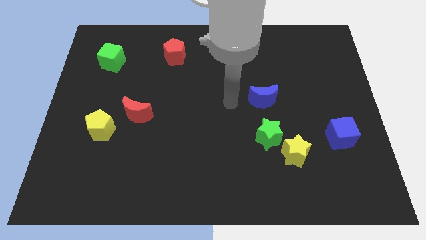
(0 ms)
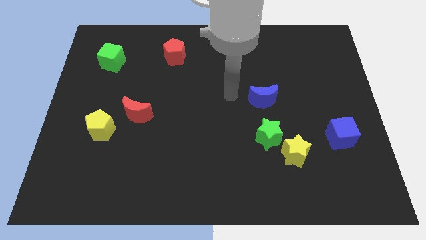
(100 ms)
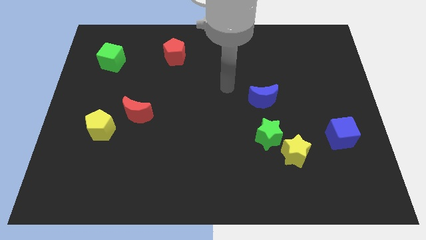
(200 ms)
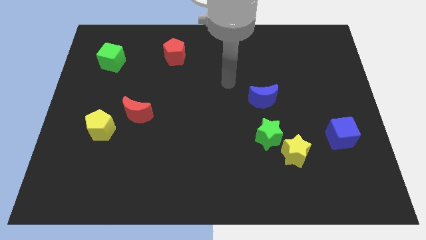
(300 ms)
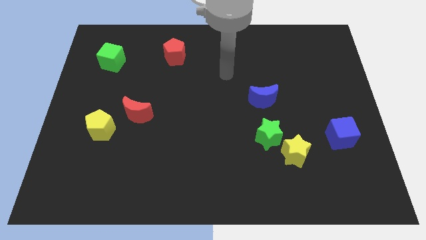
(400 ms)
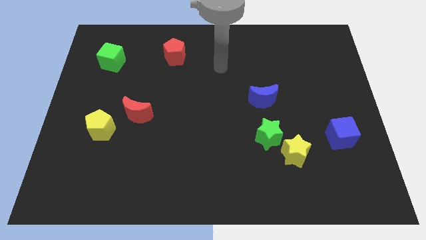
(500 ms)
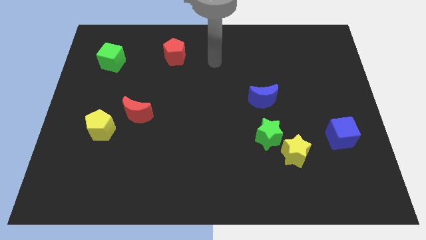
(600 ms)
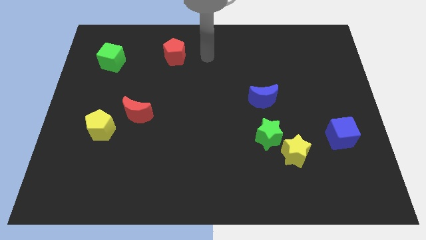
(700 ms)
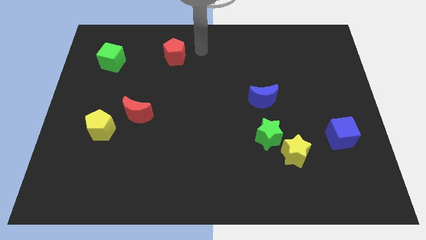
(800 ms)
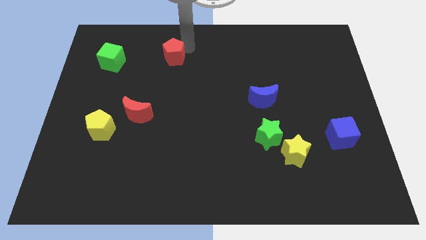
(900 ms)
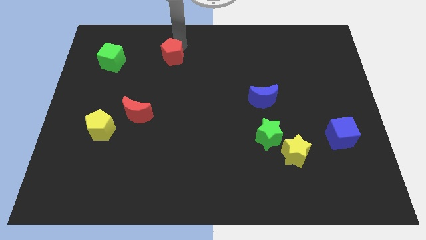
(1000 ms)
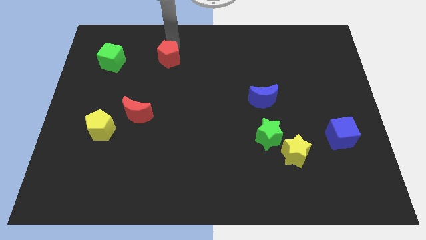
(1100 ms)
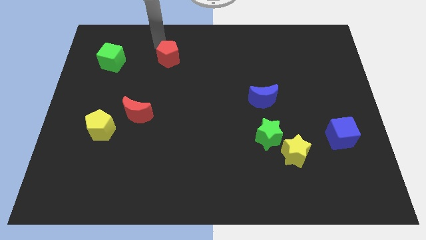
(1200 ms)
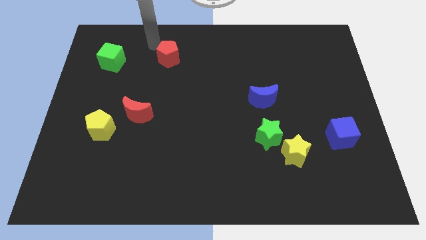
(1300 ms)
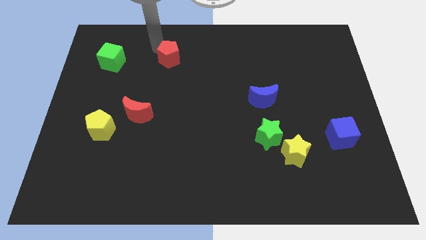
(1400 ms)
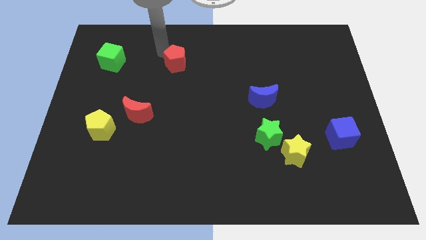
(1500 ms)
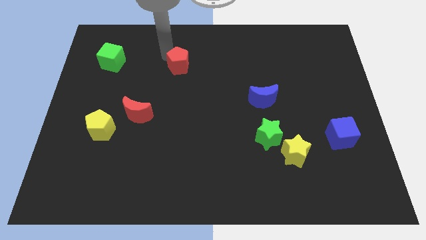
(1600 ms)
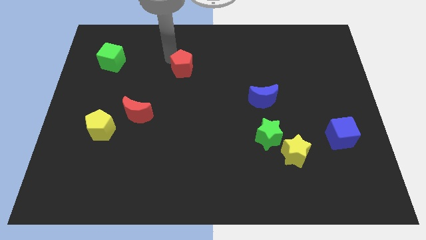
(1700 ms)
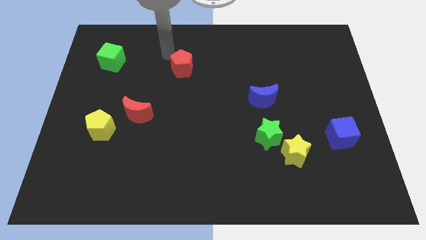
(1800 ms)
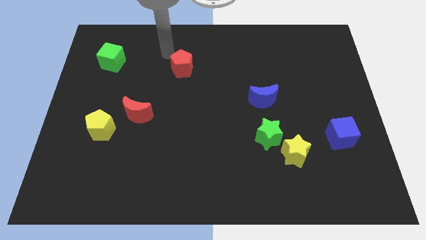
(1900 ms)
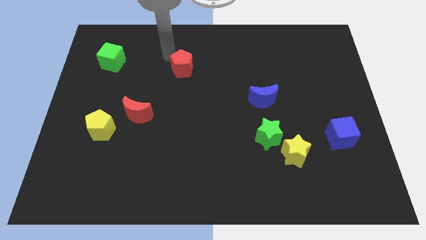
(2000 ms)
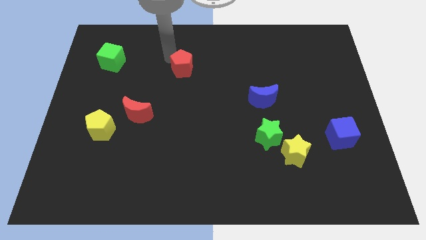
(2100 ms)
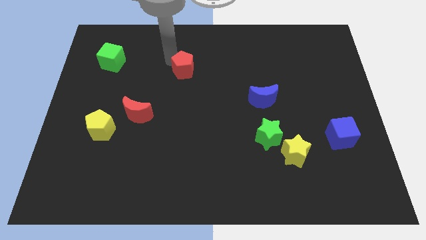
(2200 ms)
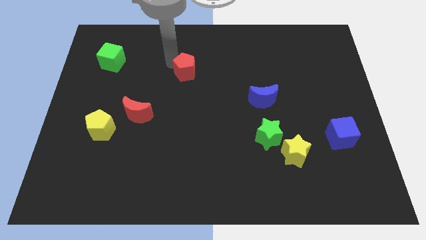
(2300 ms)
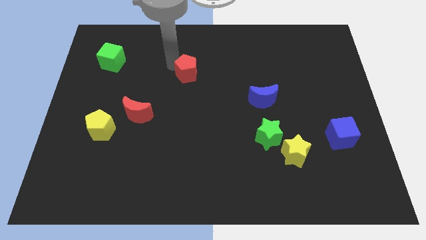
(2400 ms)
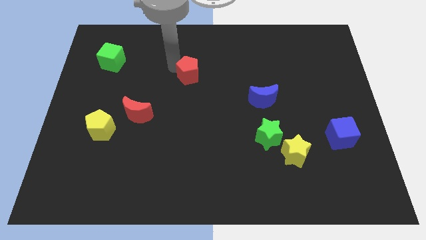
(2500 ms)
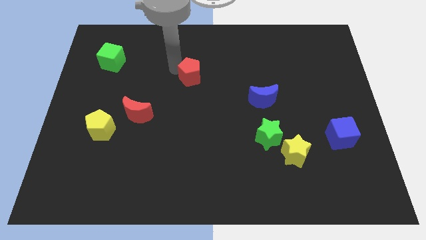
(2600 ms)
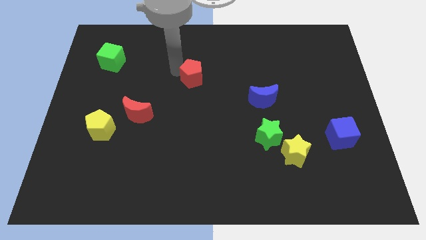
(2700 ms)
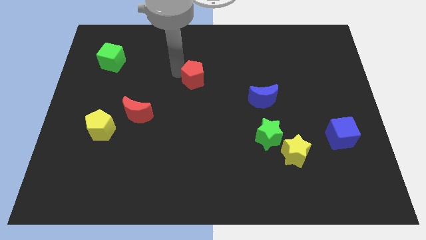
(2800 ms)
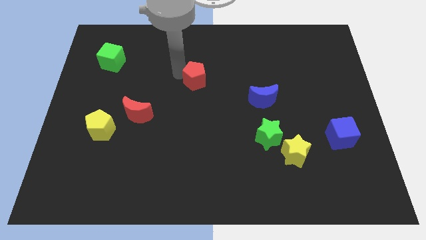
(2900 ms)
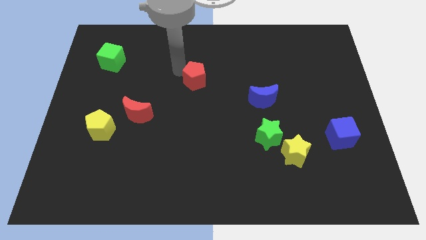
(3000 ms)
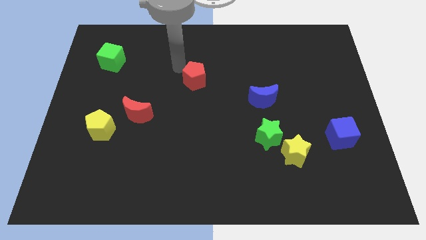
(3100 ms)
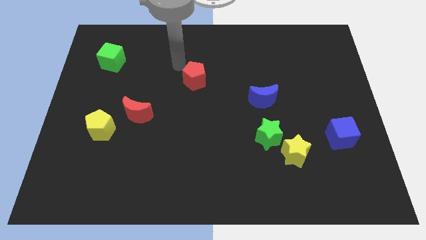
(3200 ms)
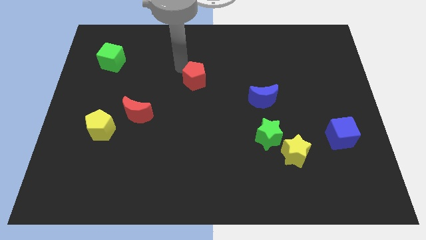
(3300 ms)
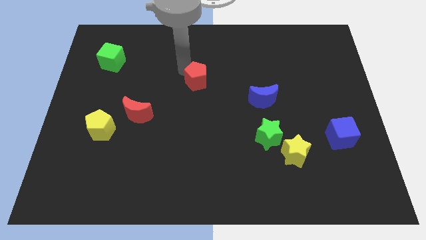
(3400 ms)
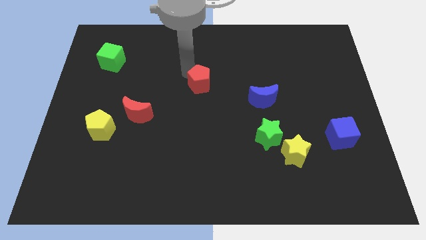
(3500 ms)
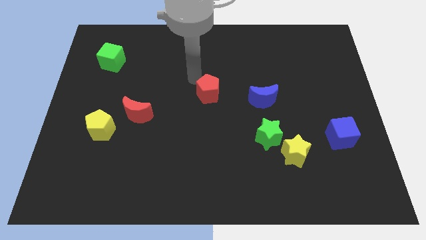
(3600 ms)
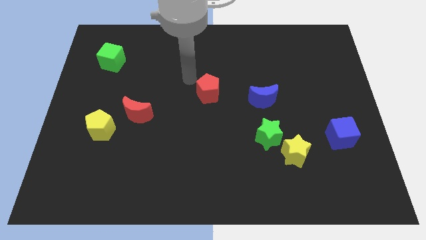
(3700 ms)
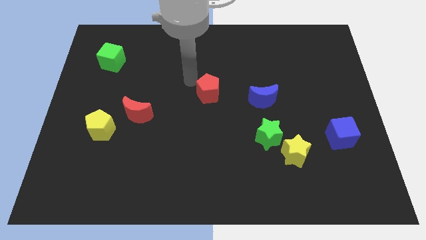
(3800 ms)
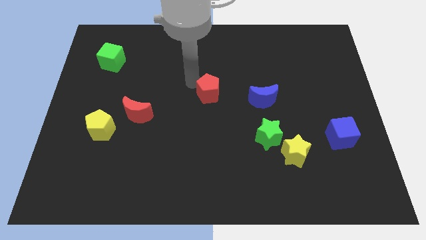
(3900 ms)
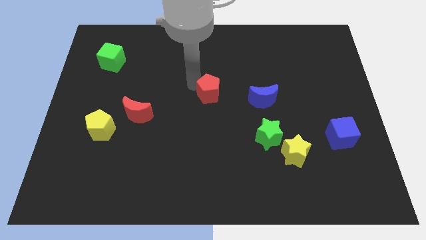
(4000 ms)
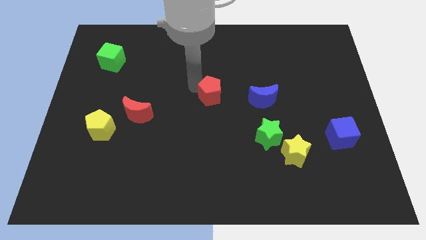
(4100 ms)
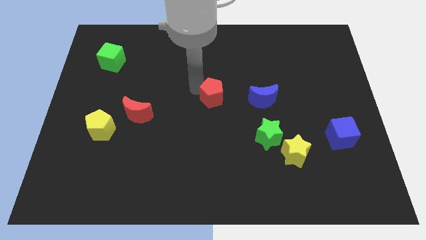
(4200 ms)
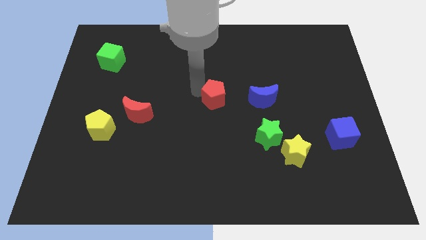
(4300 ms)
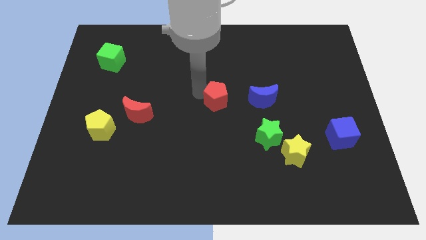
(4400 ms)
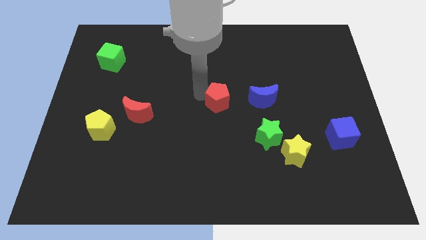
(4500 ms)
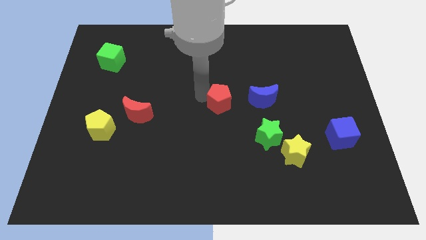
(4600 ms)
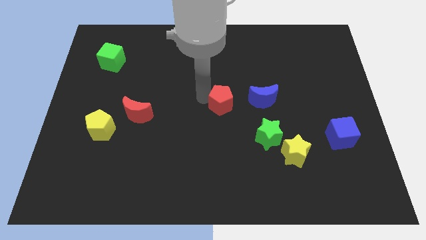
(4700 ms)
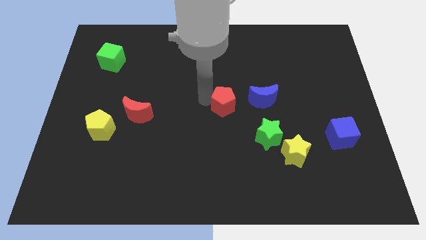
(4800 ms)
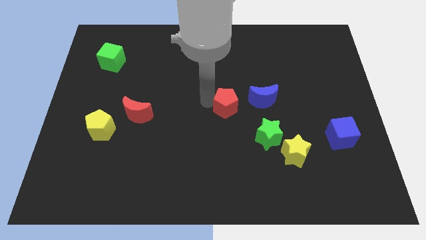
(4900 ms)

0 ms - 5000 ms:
slide the red pentagon to the bottom left side of the blue moon

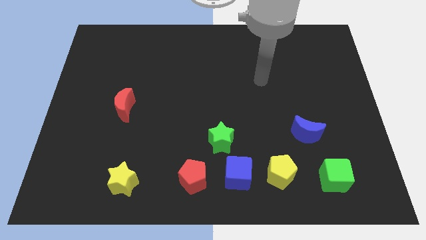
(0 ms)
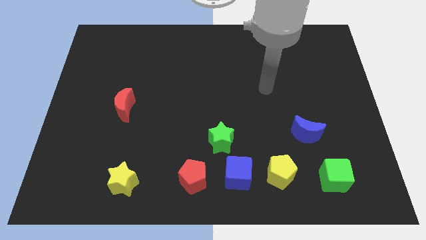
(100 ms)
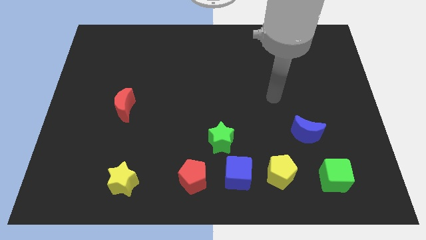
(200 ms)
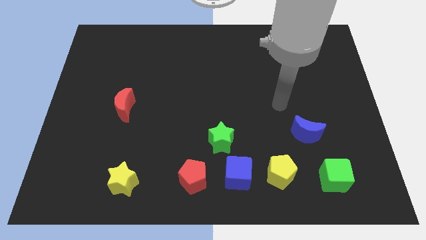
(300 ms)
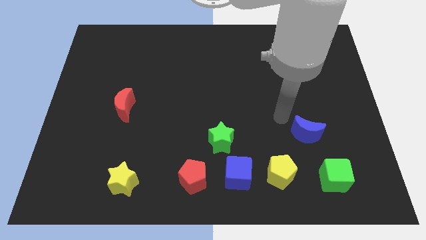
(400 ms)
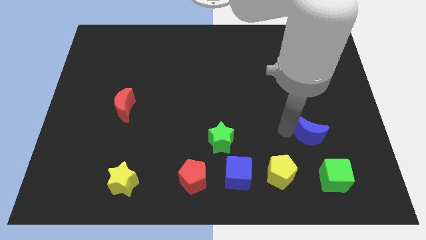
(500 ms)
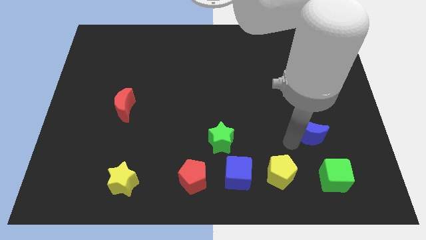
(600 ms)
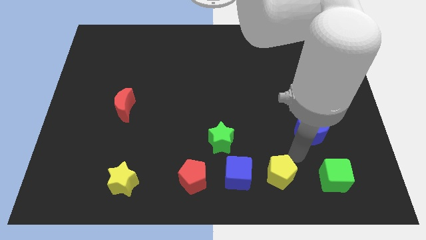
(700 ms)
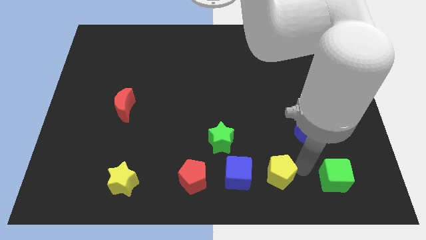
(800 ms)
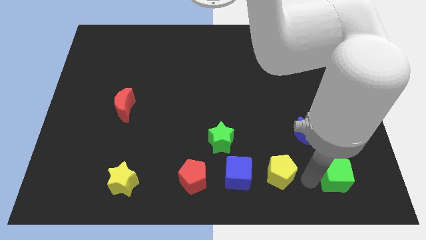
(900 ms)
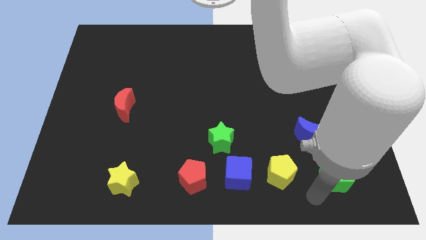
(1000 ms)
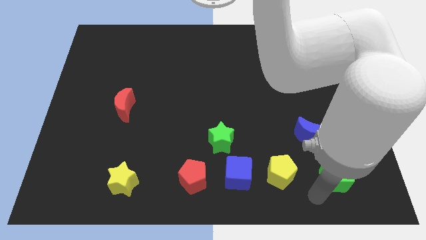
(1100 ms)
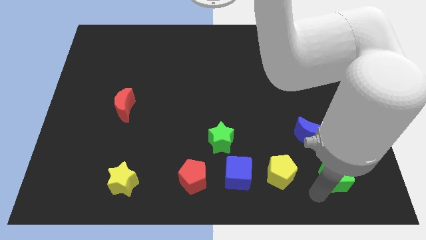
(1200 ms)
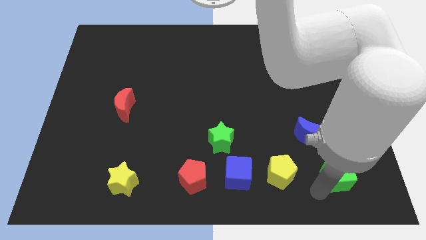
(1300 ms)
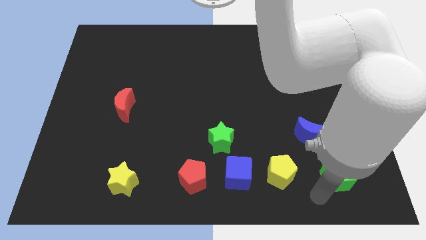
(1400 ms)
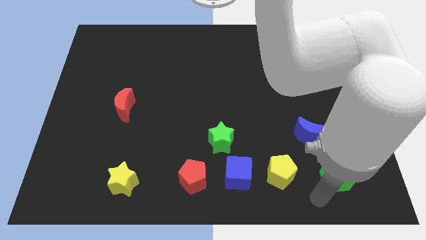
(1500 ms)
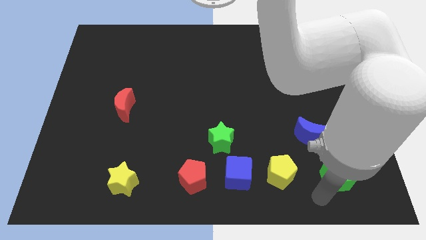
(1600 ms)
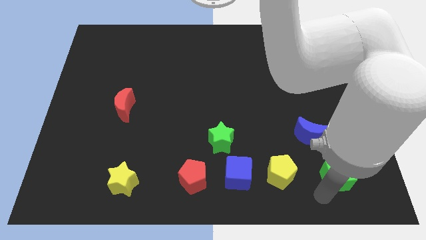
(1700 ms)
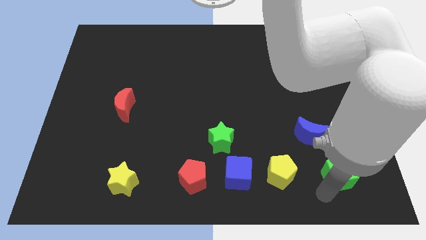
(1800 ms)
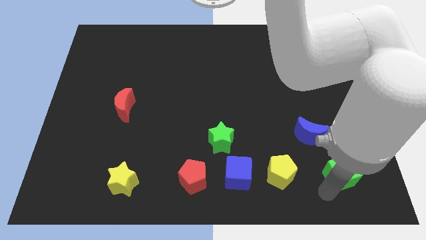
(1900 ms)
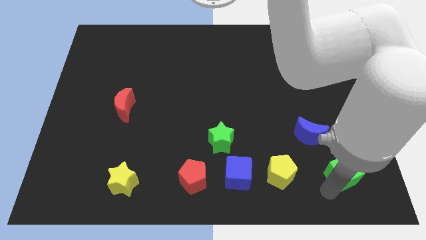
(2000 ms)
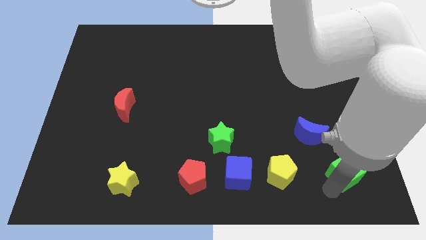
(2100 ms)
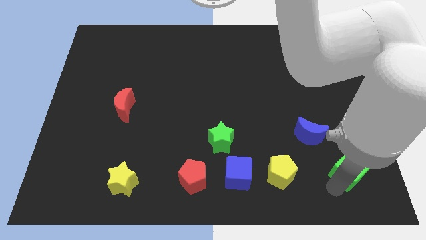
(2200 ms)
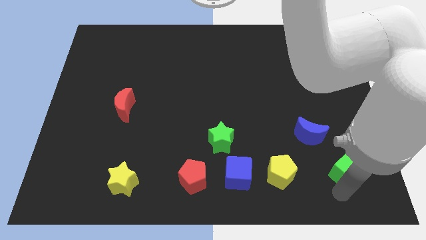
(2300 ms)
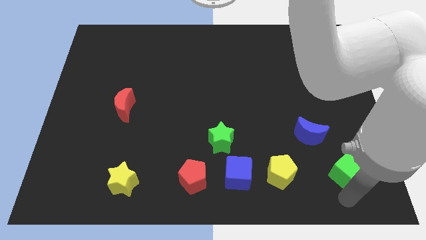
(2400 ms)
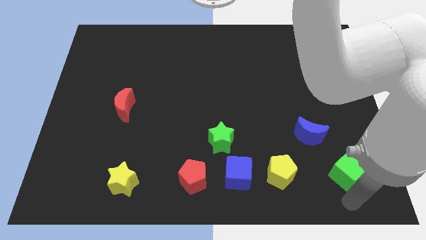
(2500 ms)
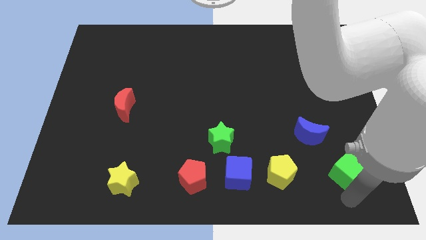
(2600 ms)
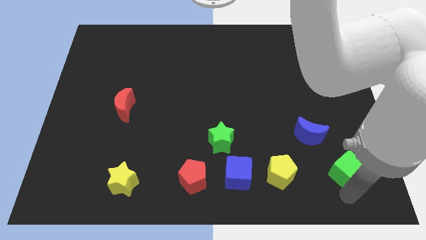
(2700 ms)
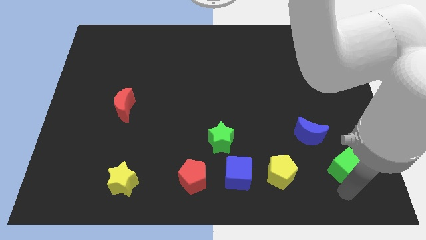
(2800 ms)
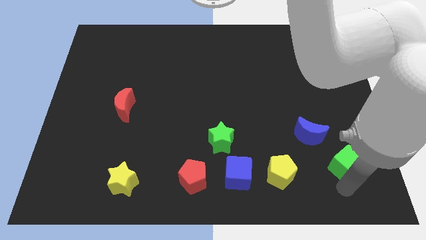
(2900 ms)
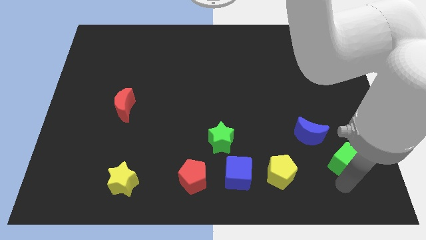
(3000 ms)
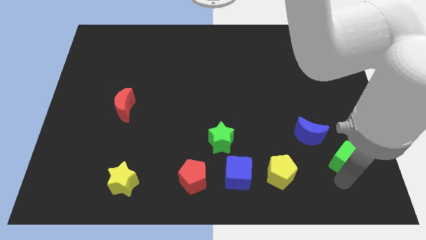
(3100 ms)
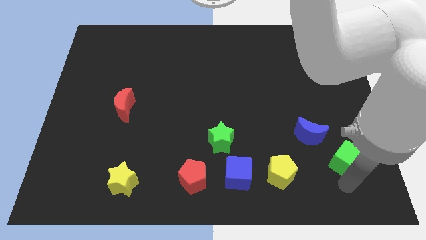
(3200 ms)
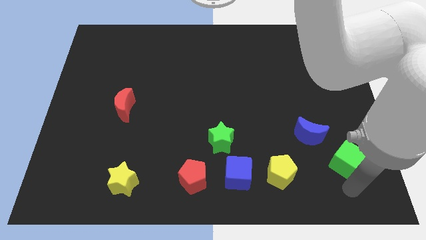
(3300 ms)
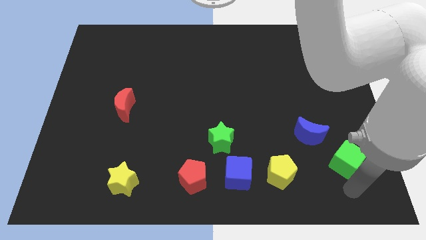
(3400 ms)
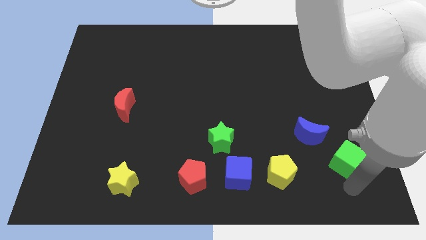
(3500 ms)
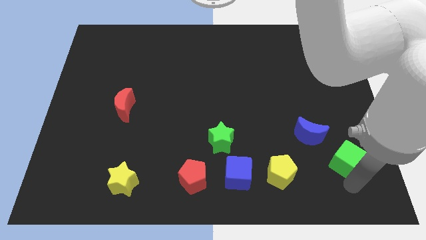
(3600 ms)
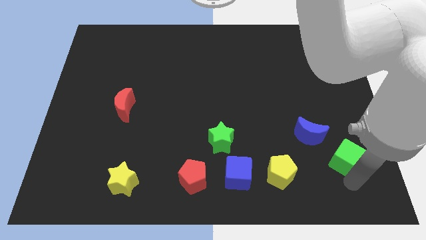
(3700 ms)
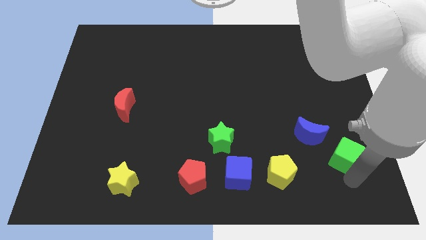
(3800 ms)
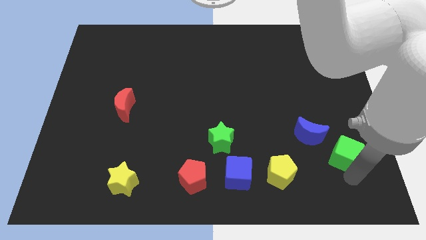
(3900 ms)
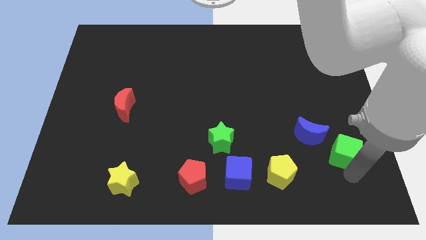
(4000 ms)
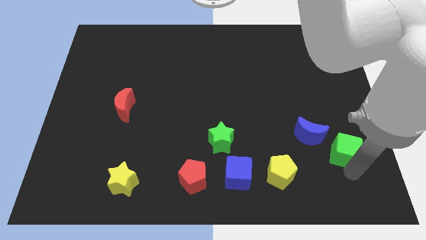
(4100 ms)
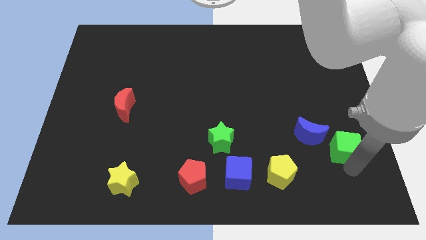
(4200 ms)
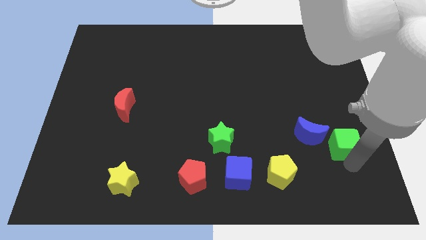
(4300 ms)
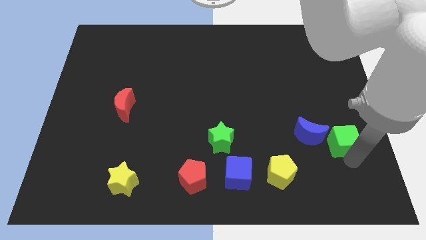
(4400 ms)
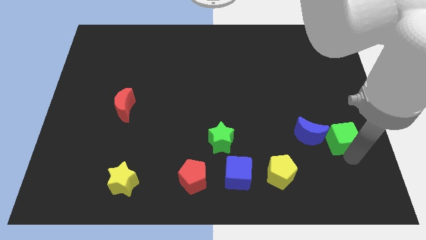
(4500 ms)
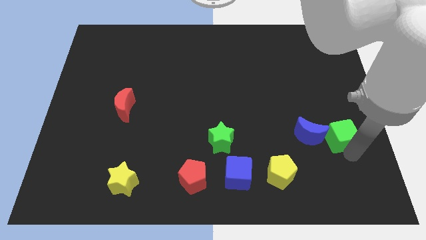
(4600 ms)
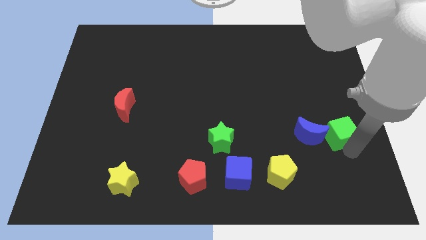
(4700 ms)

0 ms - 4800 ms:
move the green cube to the top right side of the blue moon
